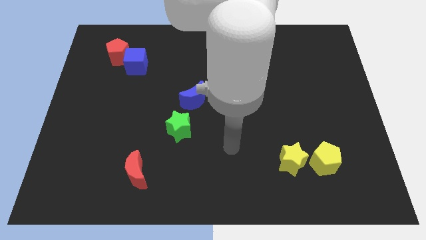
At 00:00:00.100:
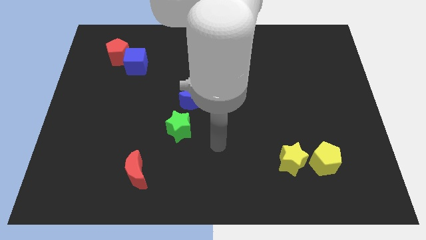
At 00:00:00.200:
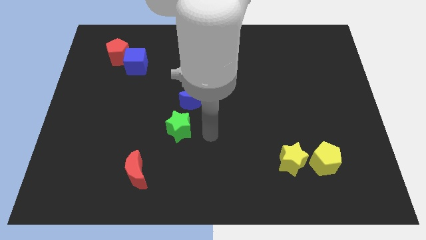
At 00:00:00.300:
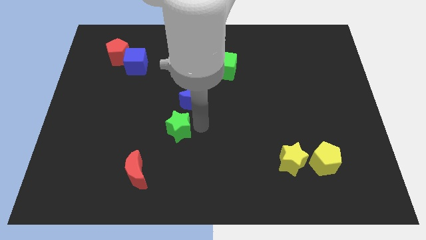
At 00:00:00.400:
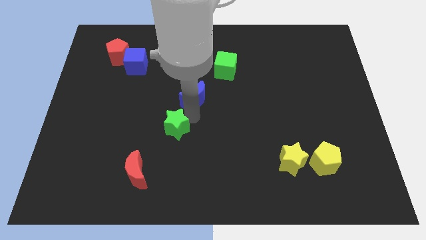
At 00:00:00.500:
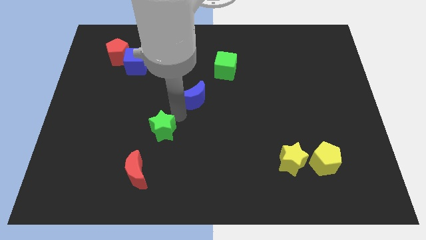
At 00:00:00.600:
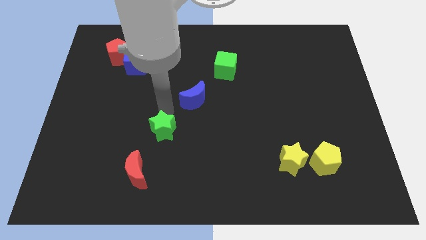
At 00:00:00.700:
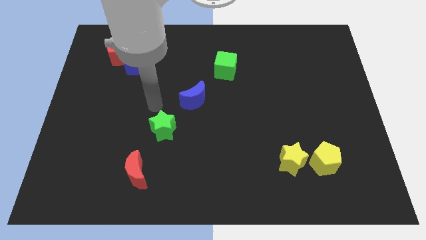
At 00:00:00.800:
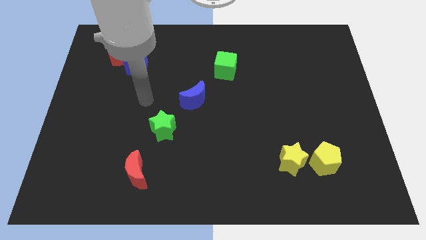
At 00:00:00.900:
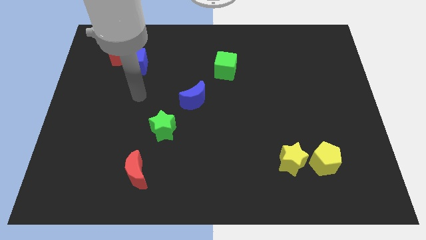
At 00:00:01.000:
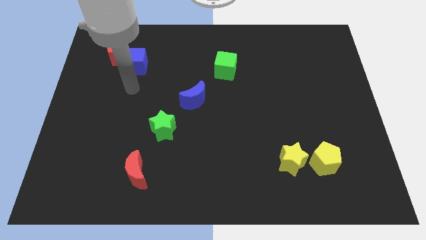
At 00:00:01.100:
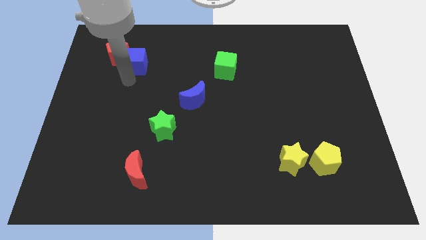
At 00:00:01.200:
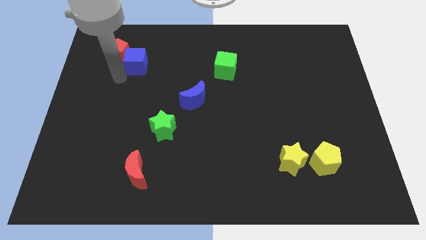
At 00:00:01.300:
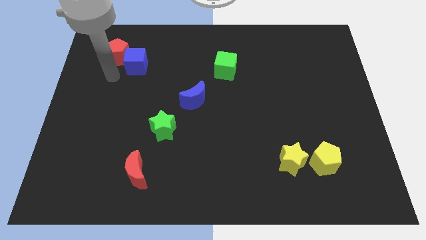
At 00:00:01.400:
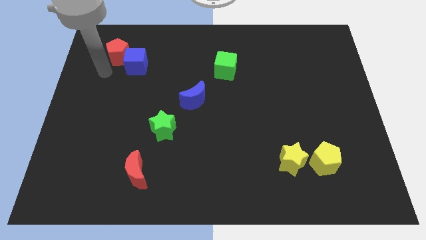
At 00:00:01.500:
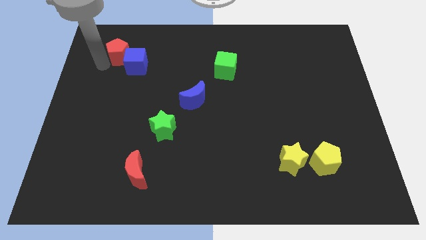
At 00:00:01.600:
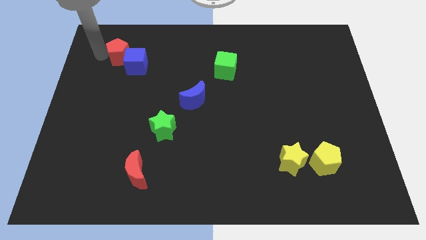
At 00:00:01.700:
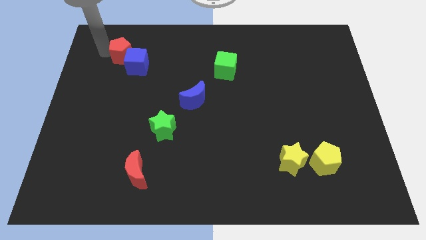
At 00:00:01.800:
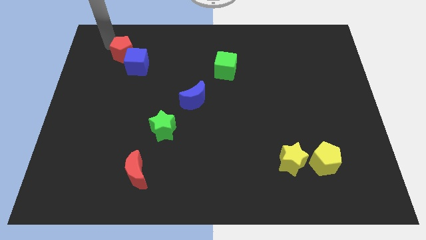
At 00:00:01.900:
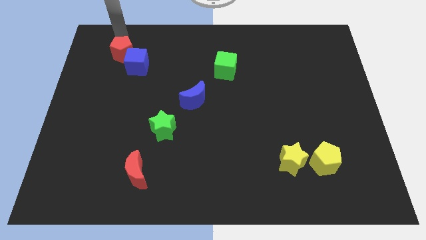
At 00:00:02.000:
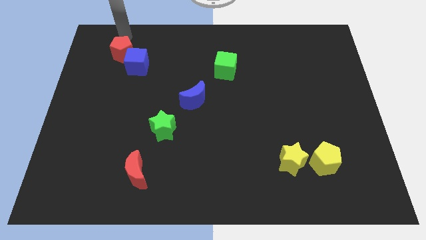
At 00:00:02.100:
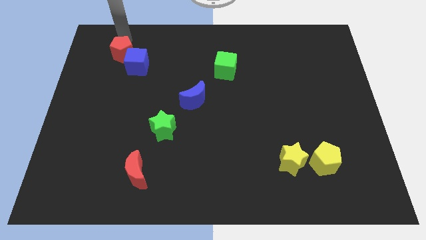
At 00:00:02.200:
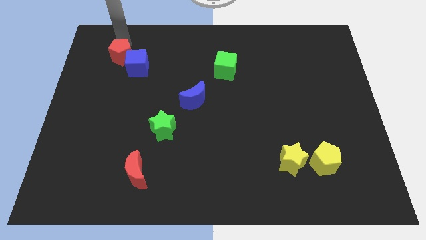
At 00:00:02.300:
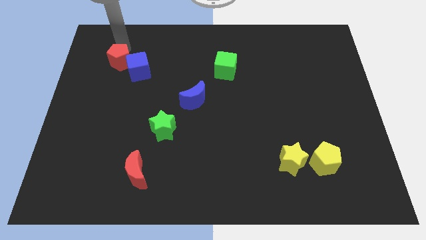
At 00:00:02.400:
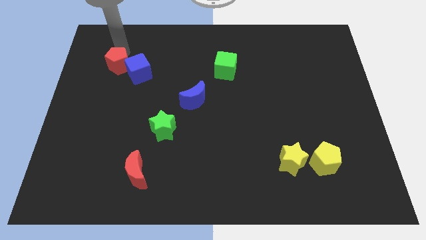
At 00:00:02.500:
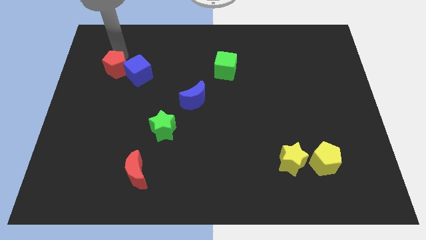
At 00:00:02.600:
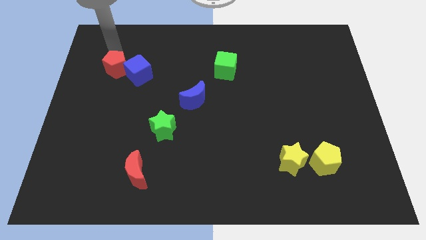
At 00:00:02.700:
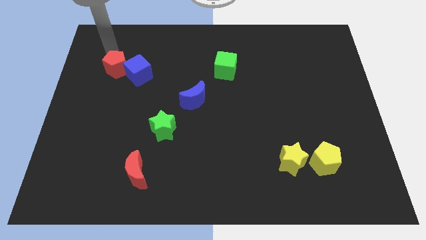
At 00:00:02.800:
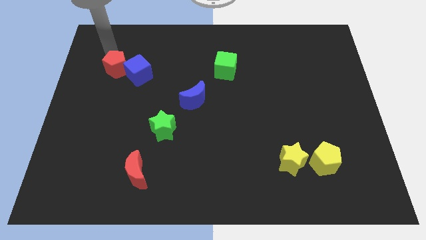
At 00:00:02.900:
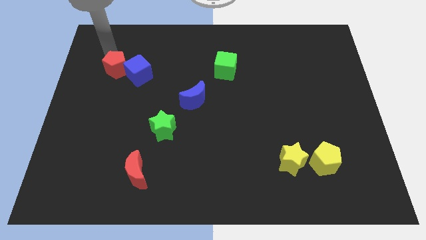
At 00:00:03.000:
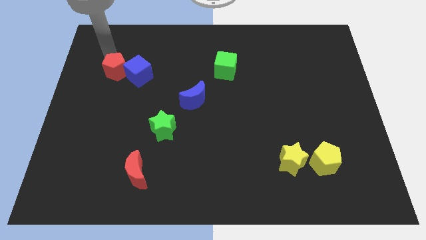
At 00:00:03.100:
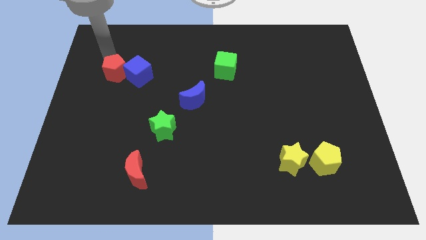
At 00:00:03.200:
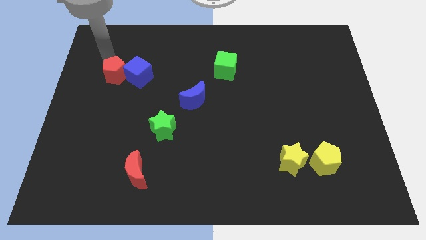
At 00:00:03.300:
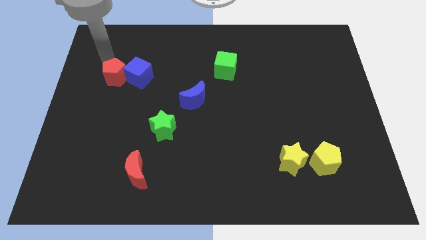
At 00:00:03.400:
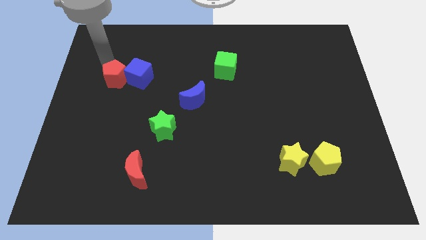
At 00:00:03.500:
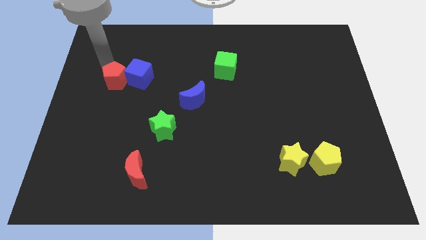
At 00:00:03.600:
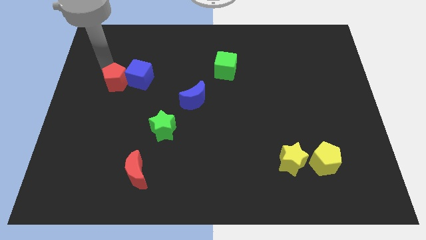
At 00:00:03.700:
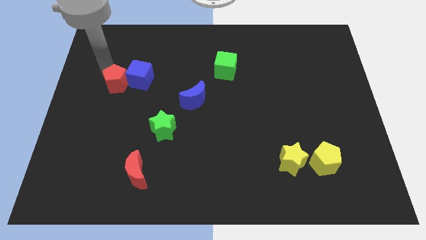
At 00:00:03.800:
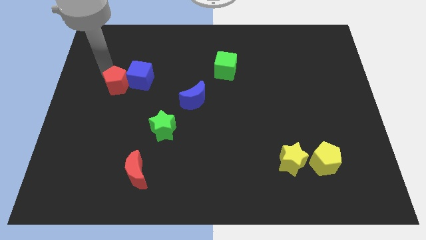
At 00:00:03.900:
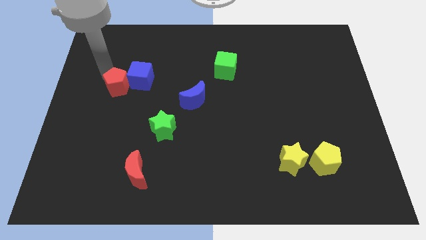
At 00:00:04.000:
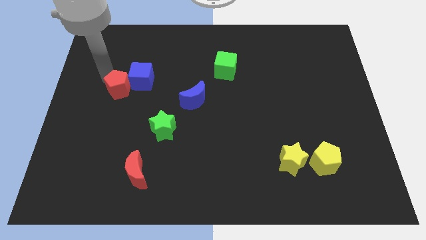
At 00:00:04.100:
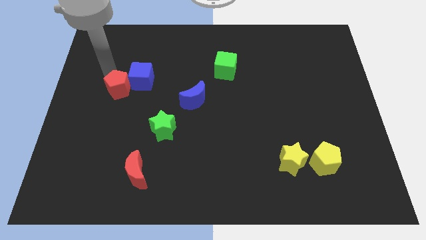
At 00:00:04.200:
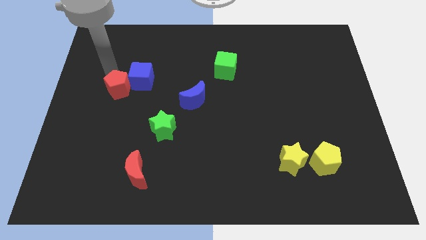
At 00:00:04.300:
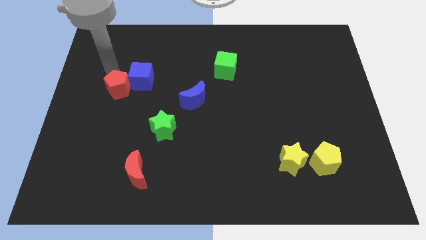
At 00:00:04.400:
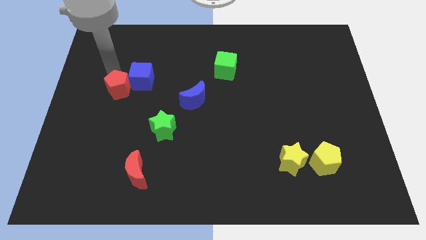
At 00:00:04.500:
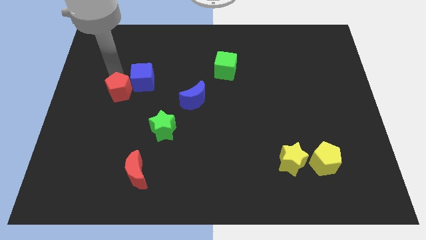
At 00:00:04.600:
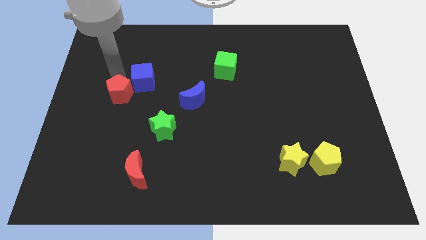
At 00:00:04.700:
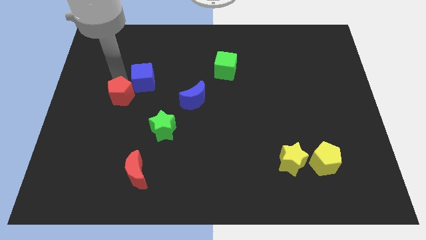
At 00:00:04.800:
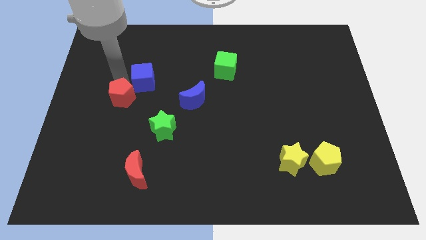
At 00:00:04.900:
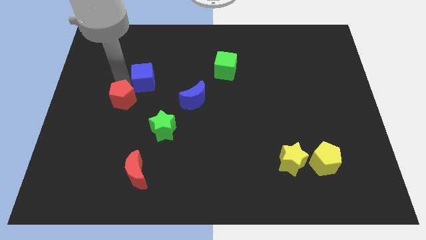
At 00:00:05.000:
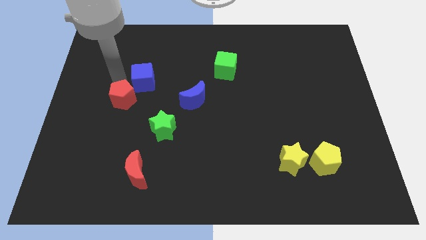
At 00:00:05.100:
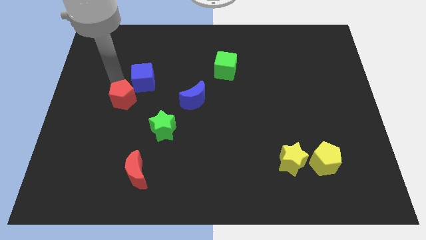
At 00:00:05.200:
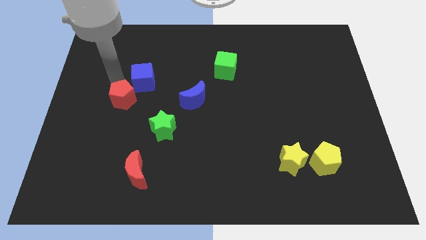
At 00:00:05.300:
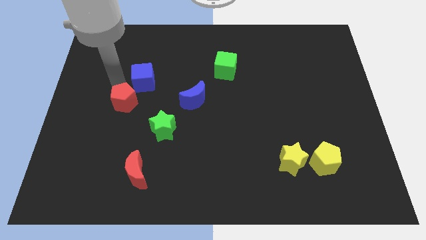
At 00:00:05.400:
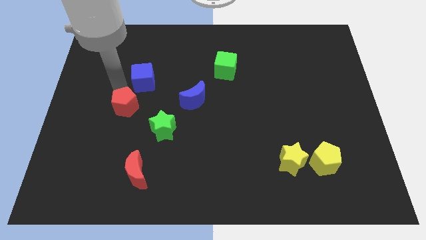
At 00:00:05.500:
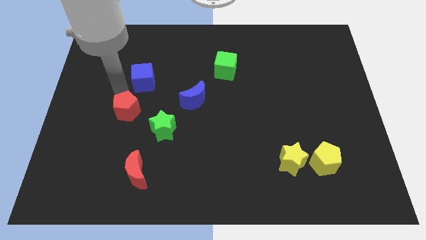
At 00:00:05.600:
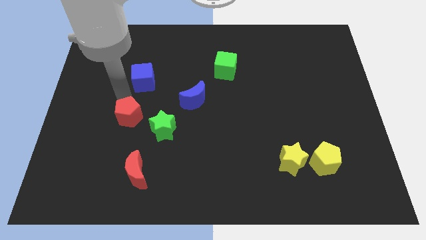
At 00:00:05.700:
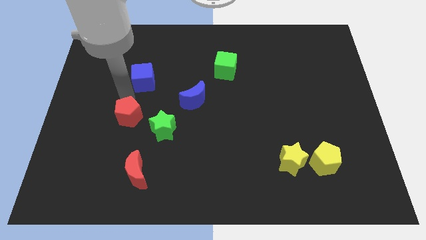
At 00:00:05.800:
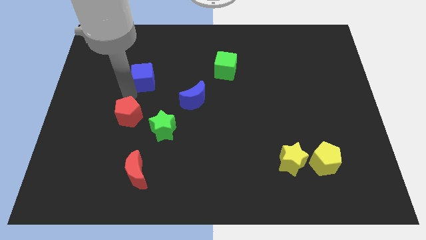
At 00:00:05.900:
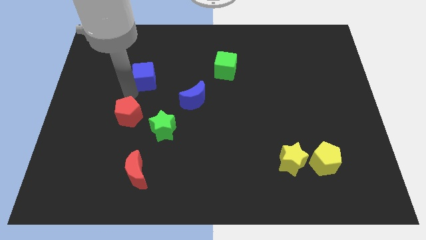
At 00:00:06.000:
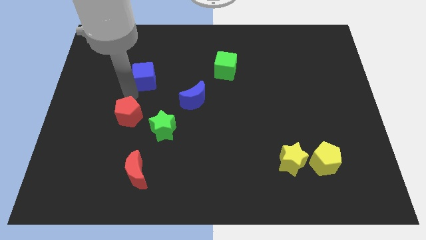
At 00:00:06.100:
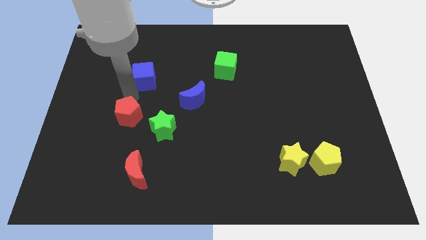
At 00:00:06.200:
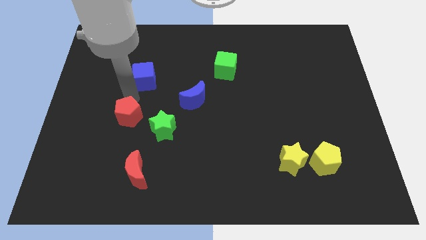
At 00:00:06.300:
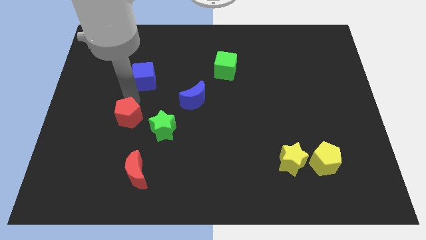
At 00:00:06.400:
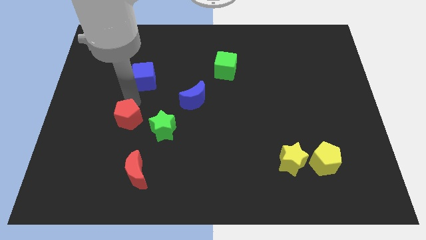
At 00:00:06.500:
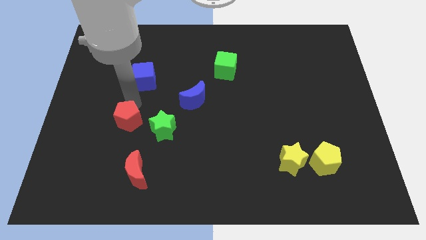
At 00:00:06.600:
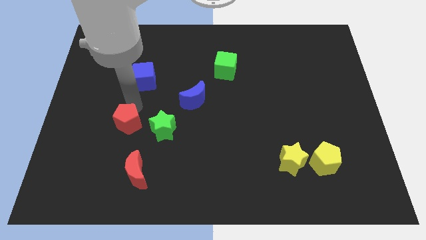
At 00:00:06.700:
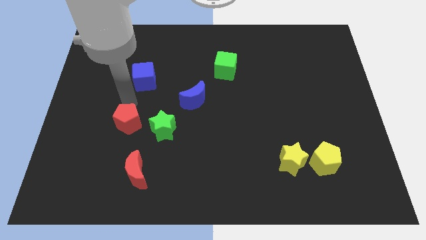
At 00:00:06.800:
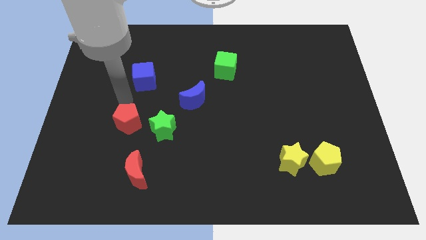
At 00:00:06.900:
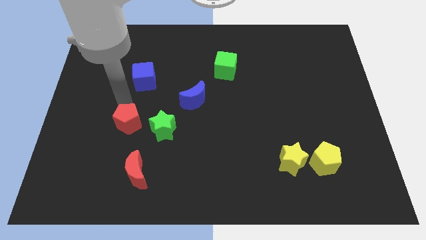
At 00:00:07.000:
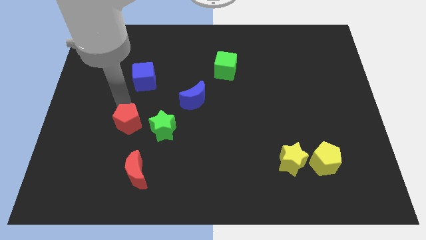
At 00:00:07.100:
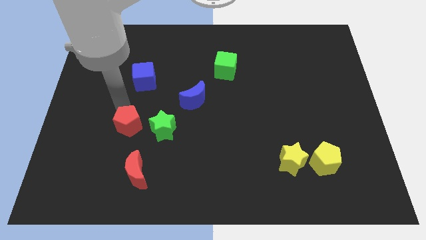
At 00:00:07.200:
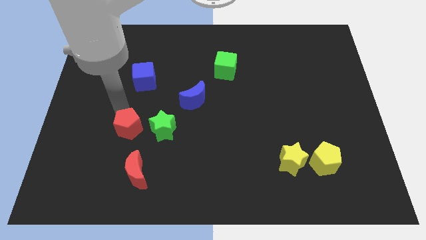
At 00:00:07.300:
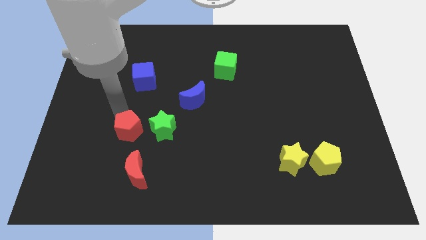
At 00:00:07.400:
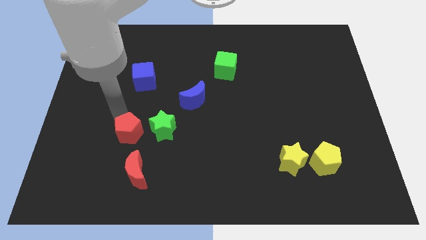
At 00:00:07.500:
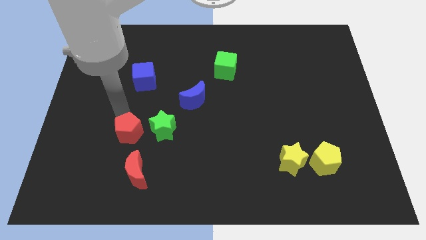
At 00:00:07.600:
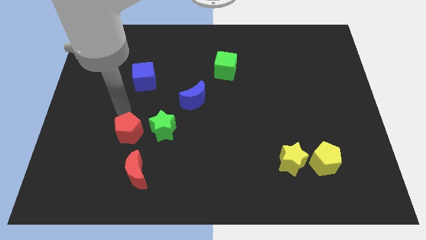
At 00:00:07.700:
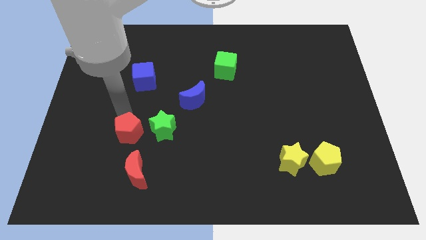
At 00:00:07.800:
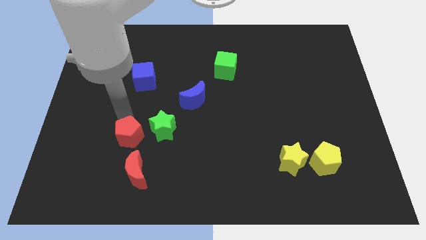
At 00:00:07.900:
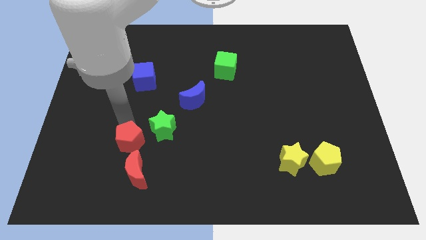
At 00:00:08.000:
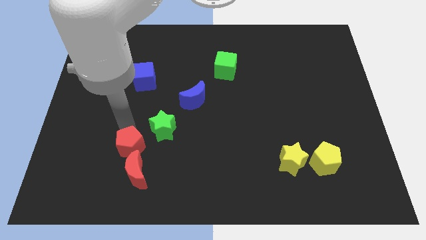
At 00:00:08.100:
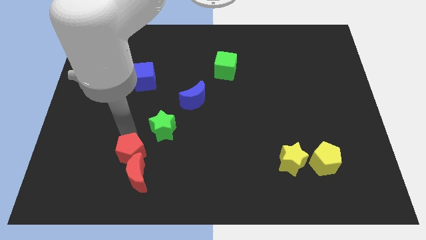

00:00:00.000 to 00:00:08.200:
move the red pentagon towards the red moon
